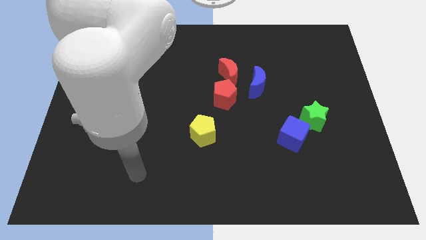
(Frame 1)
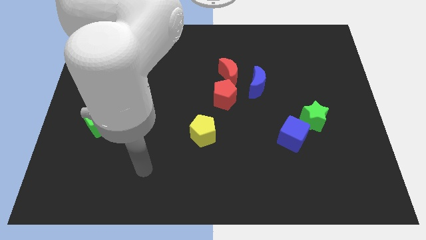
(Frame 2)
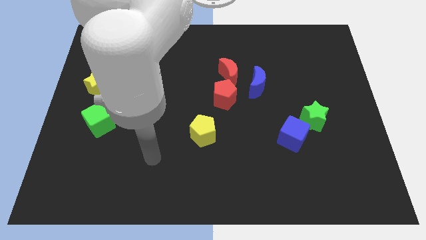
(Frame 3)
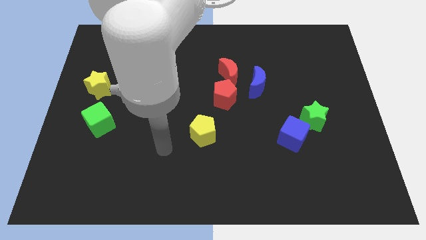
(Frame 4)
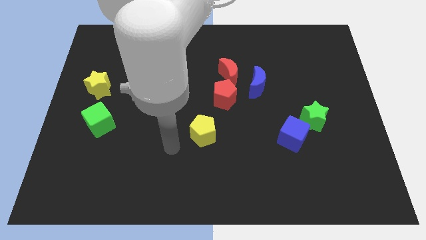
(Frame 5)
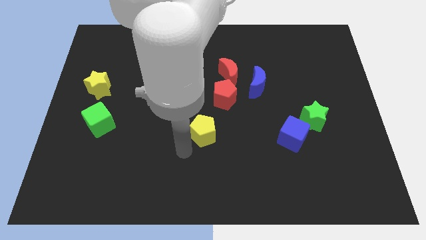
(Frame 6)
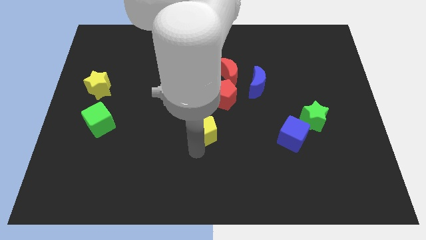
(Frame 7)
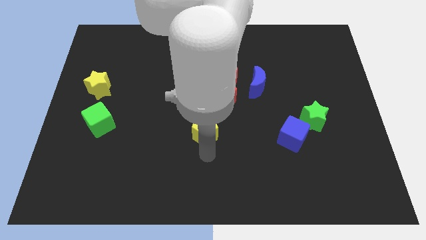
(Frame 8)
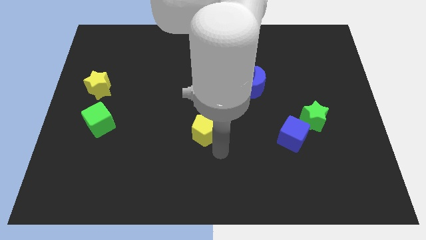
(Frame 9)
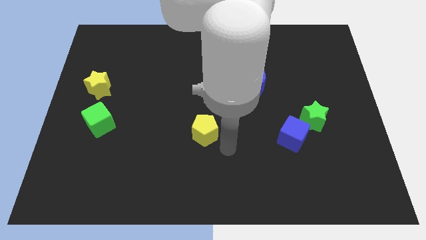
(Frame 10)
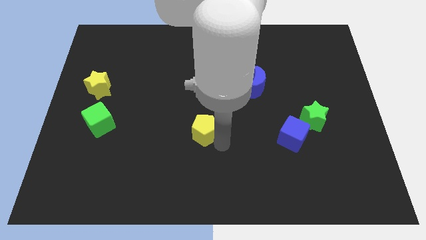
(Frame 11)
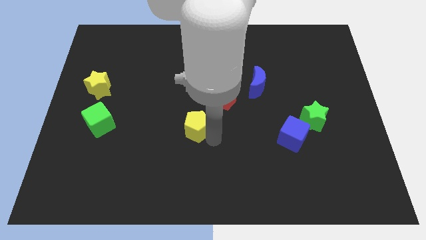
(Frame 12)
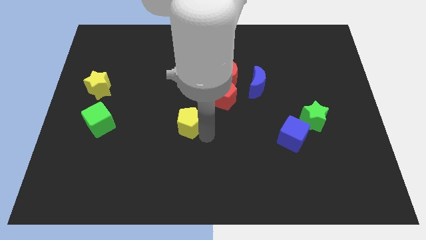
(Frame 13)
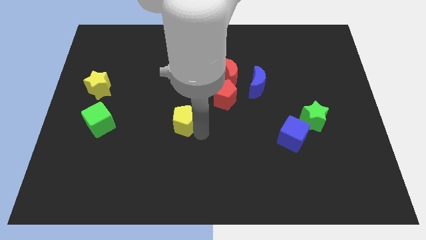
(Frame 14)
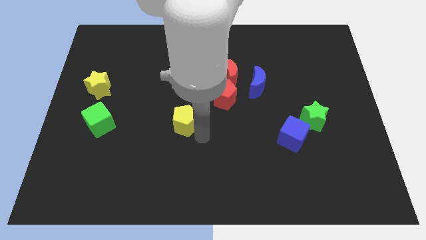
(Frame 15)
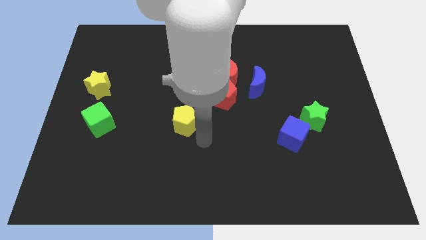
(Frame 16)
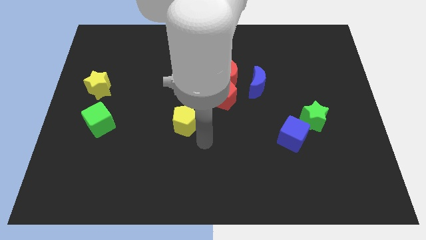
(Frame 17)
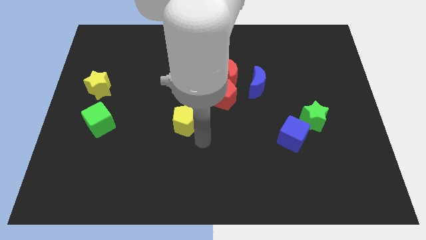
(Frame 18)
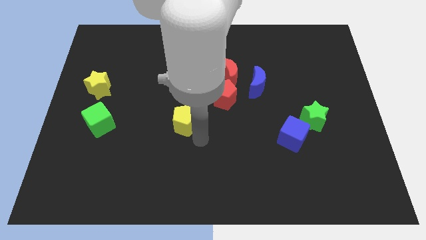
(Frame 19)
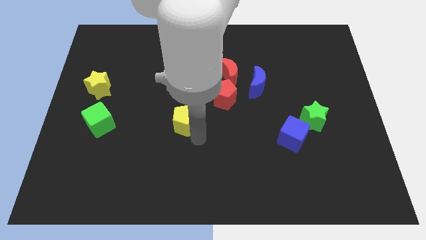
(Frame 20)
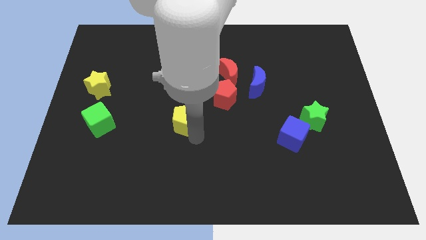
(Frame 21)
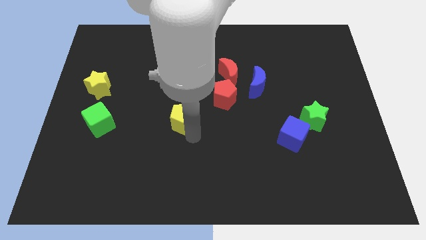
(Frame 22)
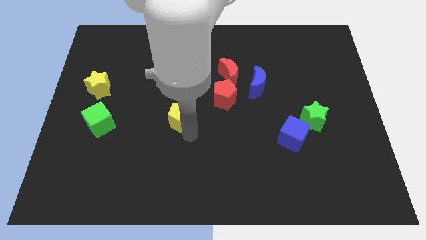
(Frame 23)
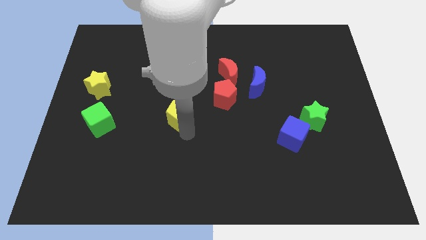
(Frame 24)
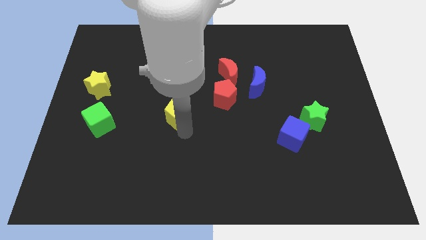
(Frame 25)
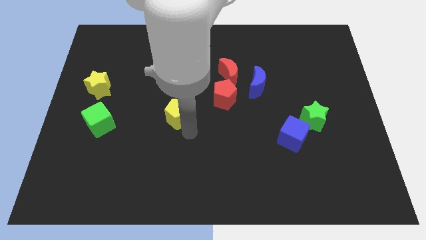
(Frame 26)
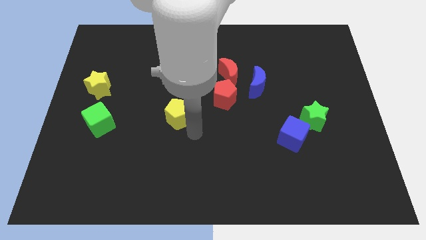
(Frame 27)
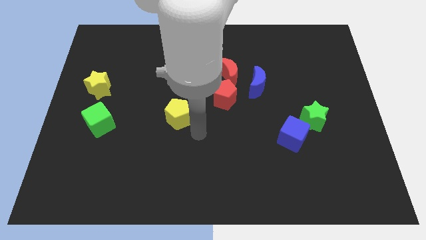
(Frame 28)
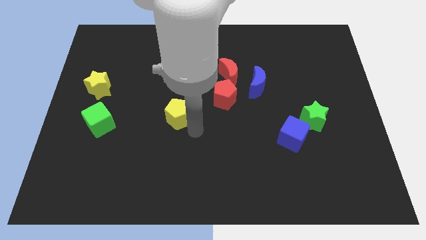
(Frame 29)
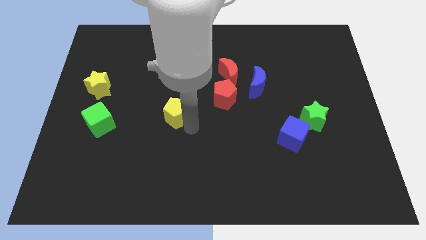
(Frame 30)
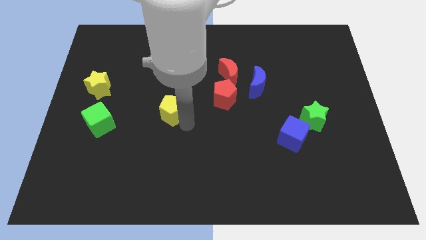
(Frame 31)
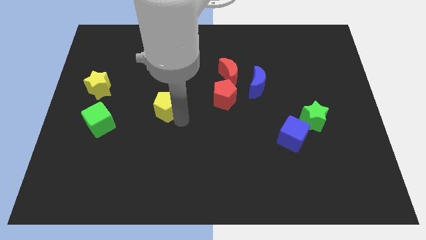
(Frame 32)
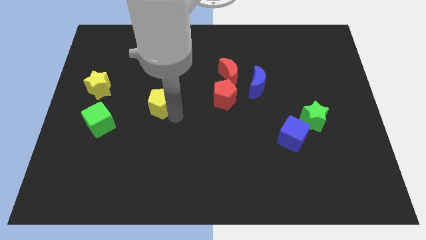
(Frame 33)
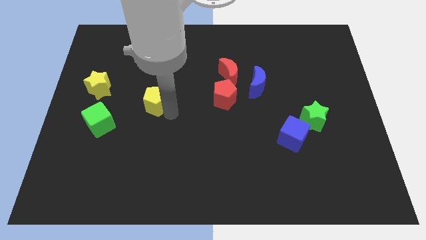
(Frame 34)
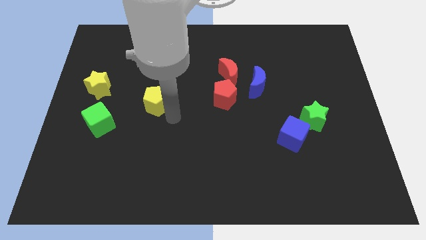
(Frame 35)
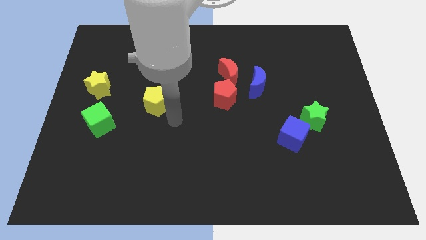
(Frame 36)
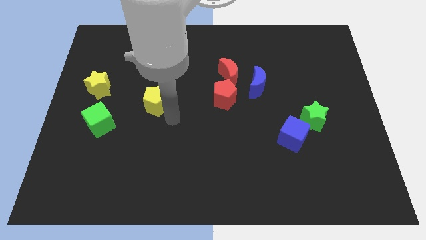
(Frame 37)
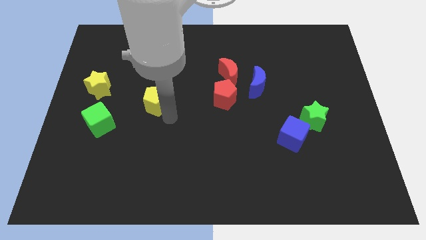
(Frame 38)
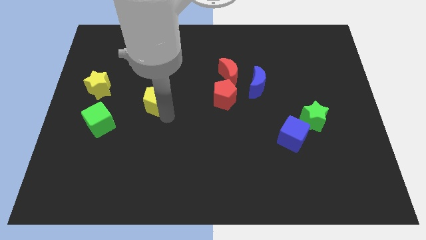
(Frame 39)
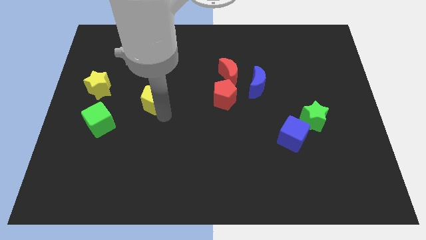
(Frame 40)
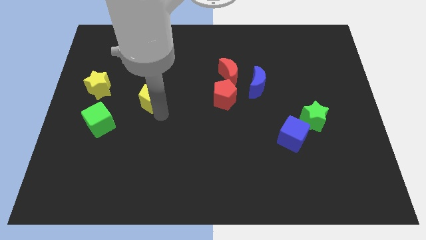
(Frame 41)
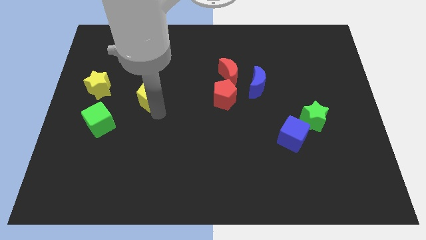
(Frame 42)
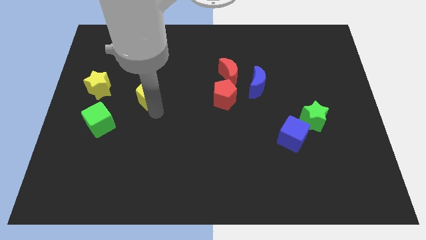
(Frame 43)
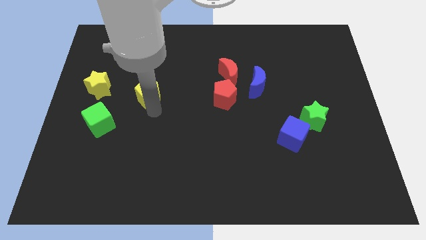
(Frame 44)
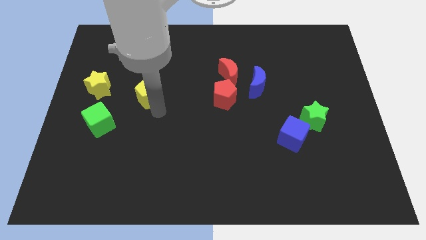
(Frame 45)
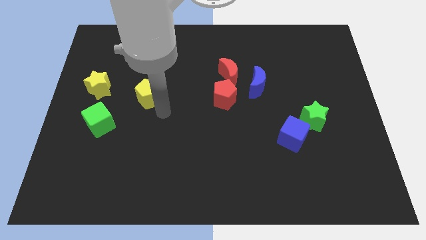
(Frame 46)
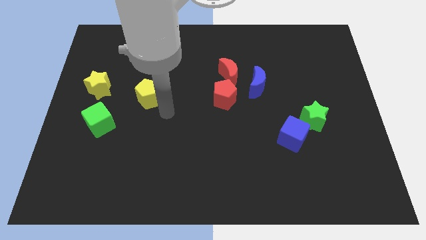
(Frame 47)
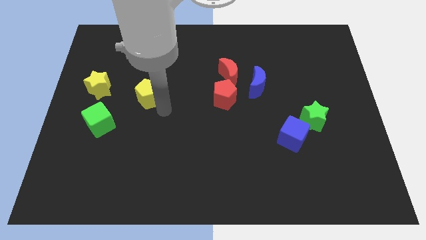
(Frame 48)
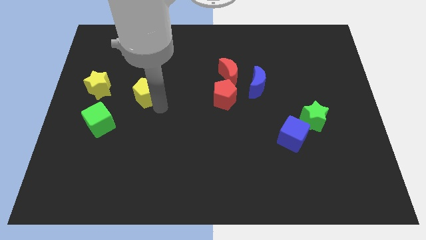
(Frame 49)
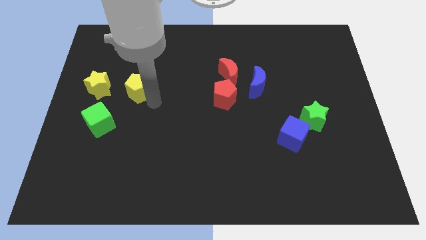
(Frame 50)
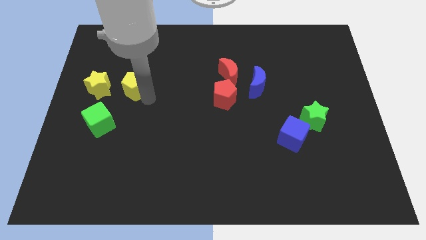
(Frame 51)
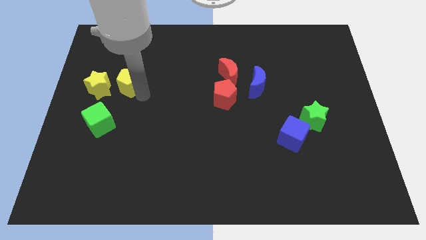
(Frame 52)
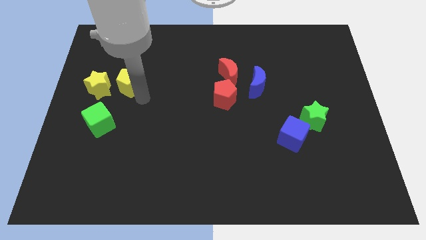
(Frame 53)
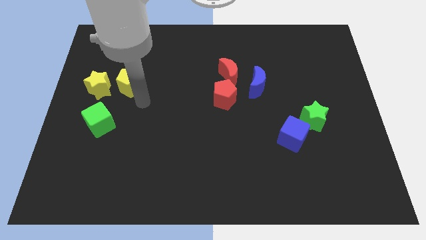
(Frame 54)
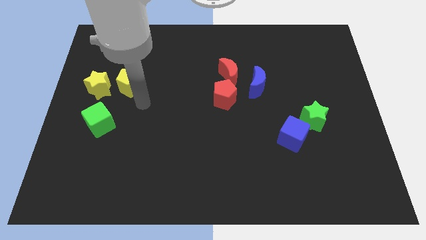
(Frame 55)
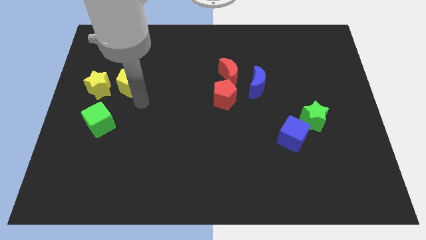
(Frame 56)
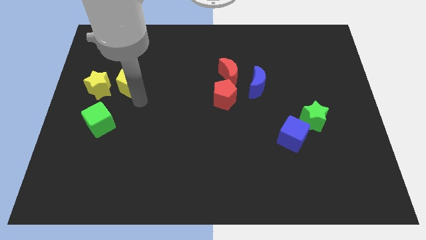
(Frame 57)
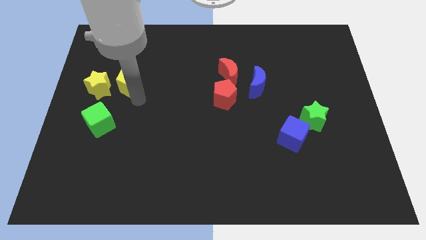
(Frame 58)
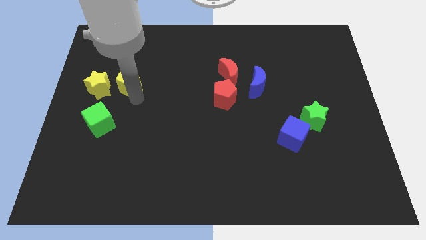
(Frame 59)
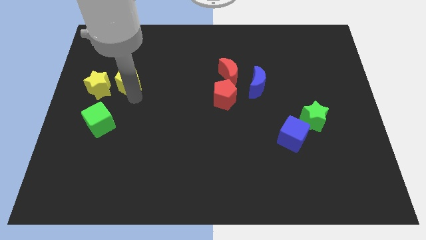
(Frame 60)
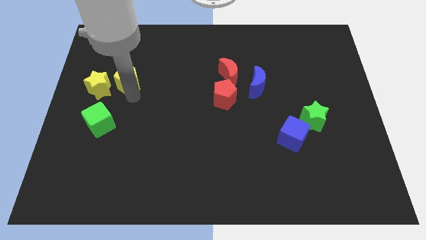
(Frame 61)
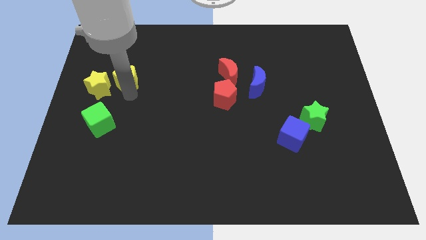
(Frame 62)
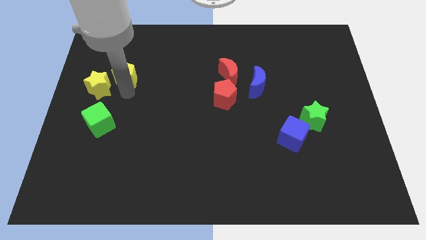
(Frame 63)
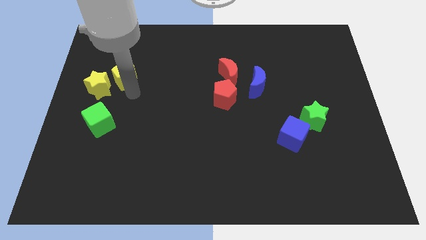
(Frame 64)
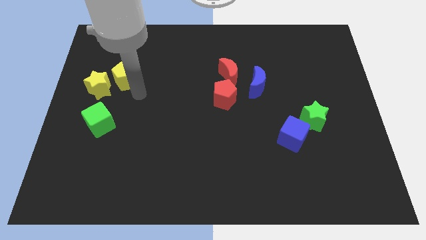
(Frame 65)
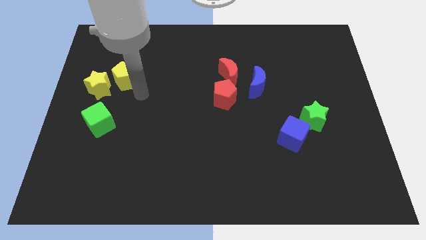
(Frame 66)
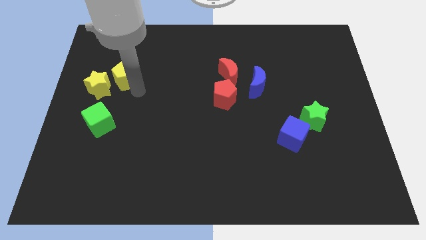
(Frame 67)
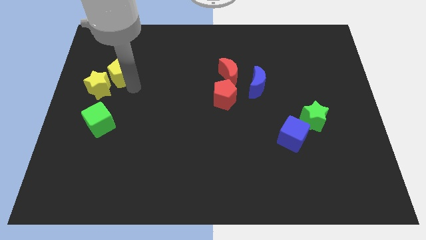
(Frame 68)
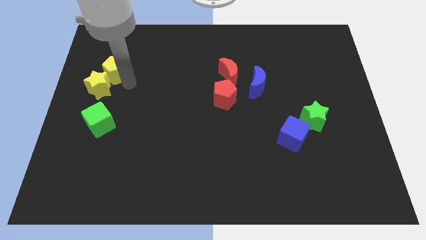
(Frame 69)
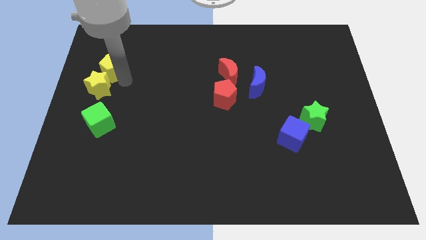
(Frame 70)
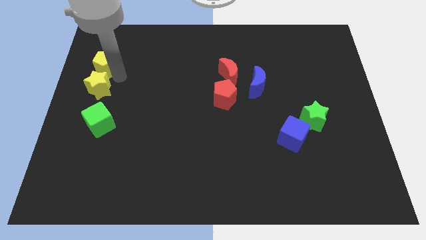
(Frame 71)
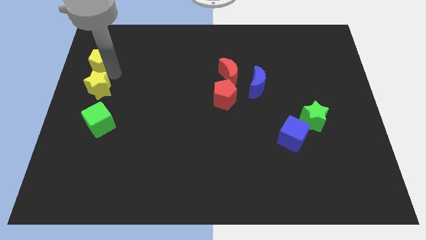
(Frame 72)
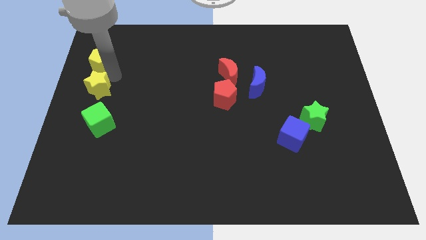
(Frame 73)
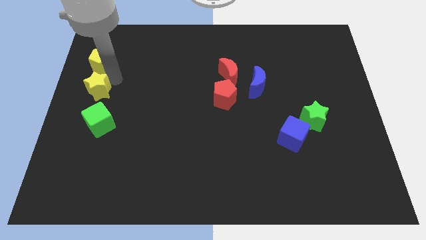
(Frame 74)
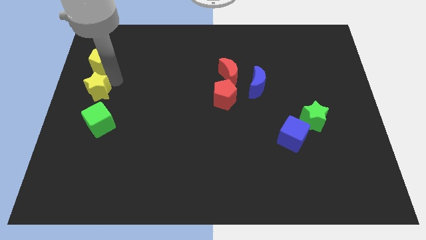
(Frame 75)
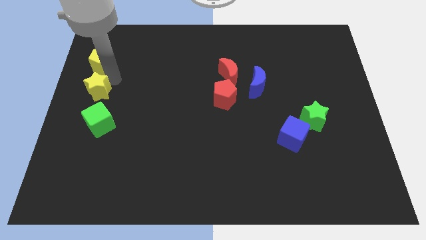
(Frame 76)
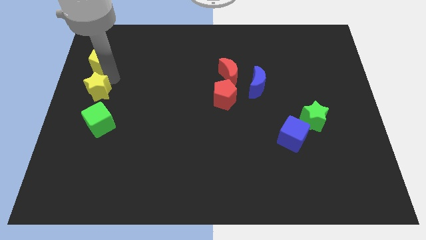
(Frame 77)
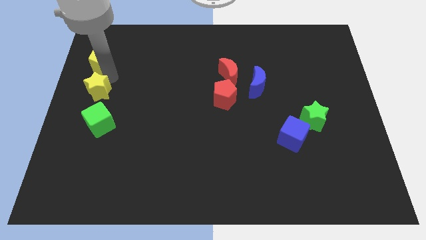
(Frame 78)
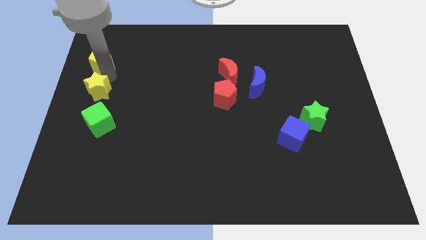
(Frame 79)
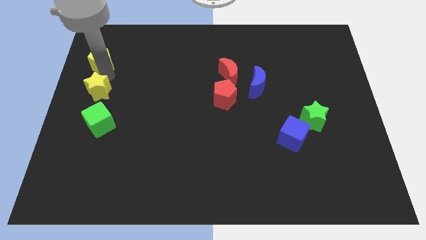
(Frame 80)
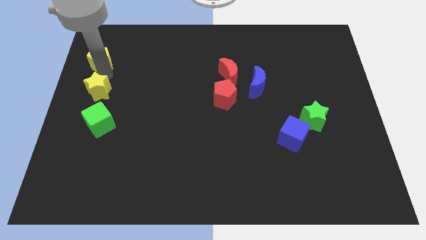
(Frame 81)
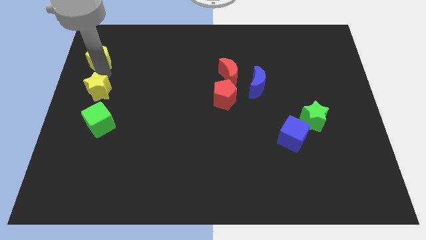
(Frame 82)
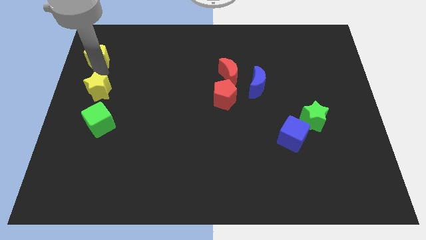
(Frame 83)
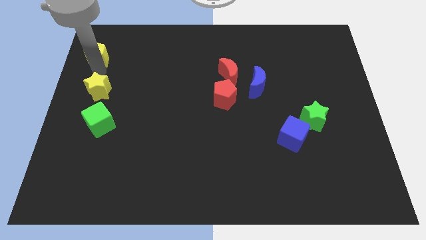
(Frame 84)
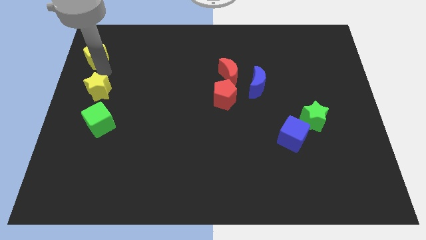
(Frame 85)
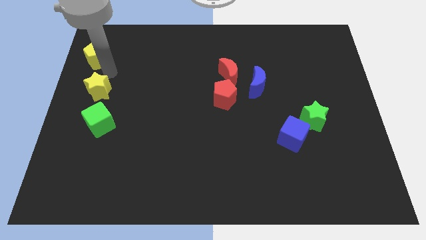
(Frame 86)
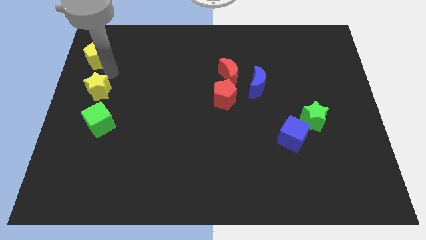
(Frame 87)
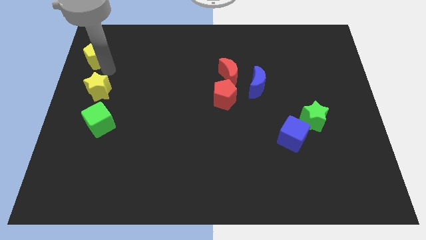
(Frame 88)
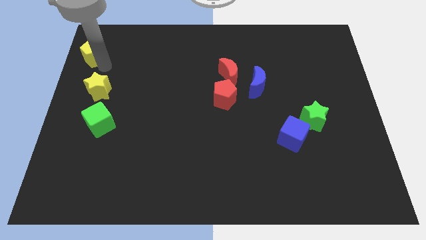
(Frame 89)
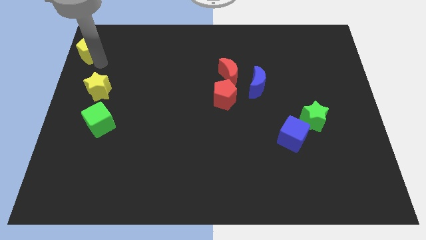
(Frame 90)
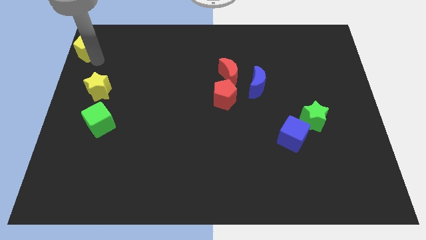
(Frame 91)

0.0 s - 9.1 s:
move the yellow pentagon to the top left
